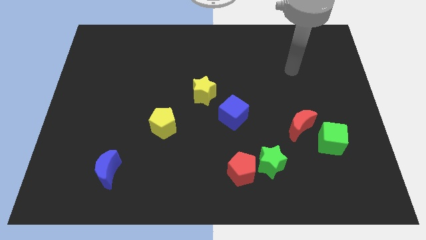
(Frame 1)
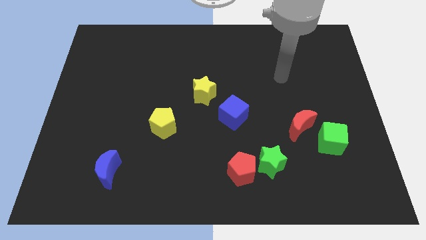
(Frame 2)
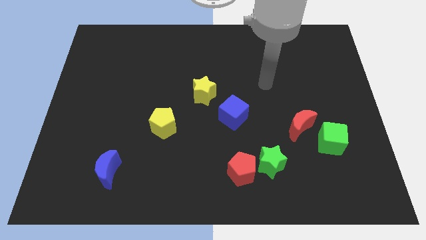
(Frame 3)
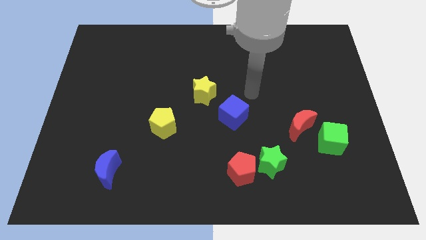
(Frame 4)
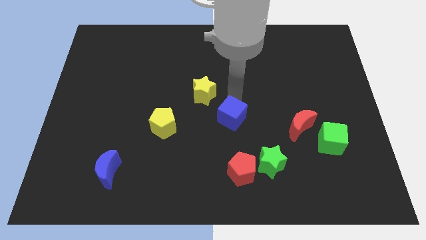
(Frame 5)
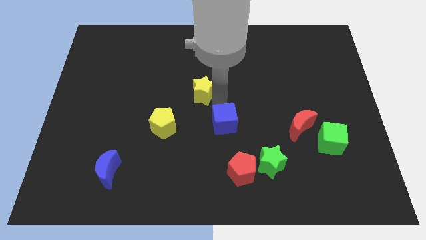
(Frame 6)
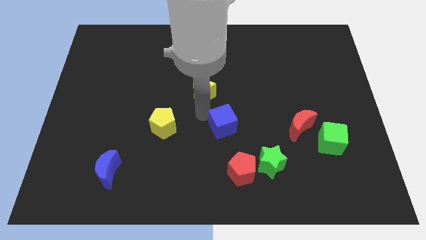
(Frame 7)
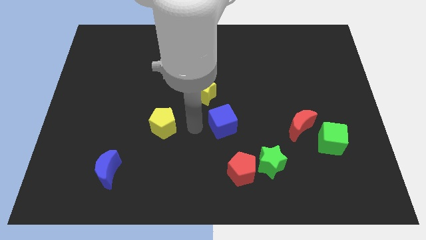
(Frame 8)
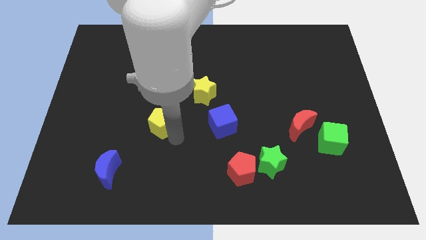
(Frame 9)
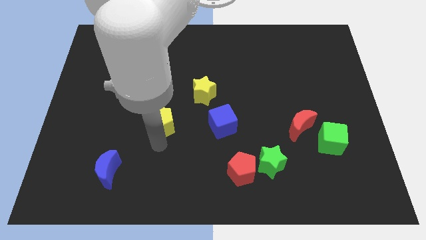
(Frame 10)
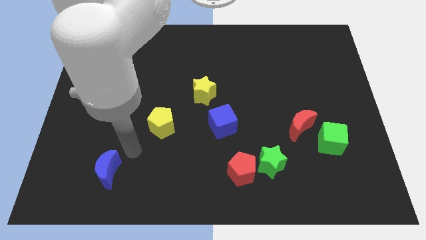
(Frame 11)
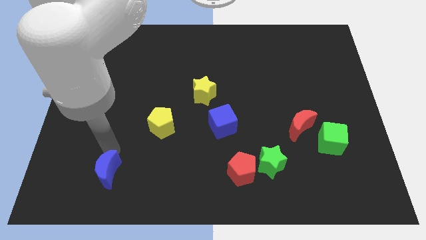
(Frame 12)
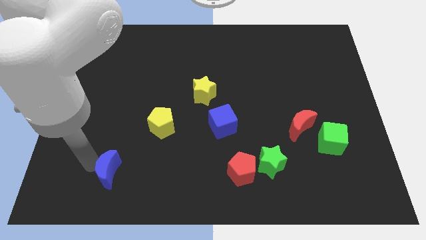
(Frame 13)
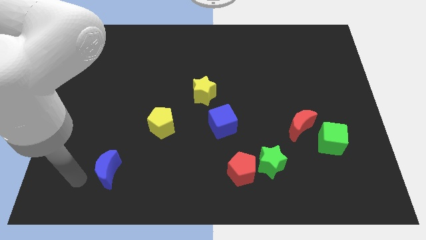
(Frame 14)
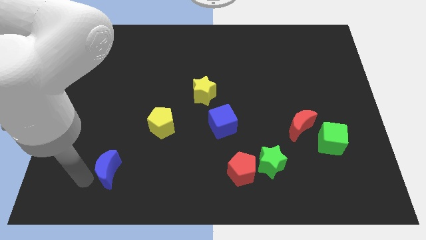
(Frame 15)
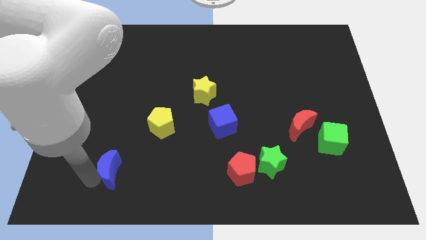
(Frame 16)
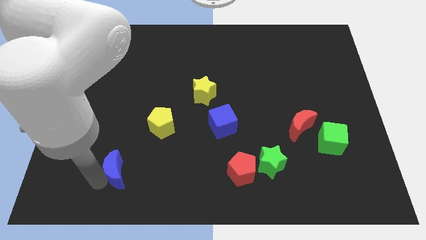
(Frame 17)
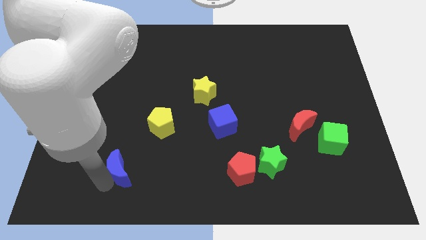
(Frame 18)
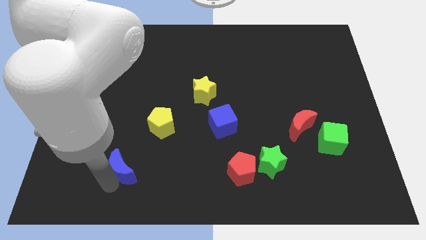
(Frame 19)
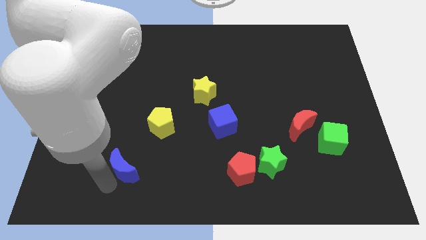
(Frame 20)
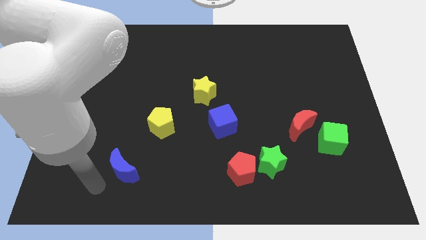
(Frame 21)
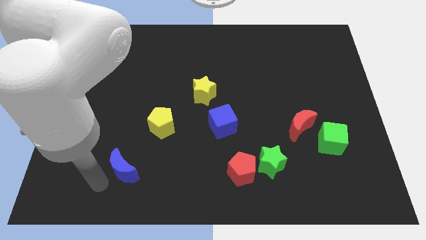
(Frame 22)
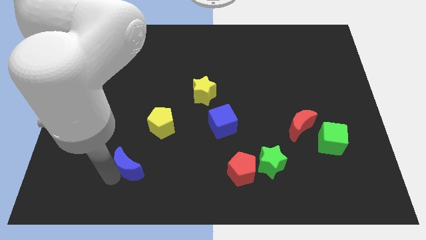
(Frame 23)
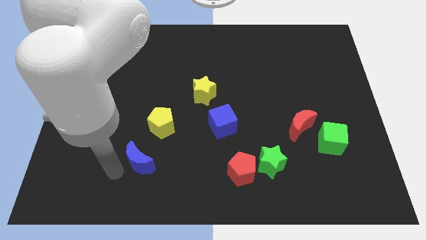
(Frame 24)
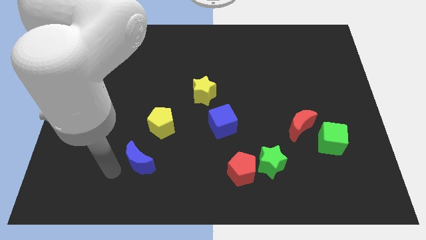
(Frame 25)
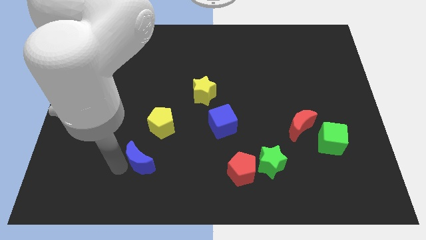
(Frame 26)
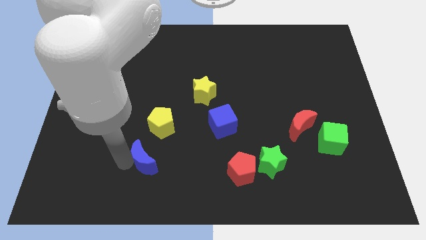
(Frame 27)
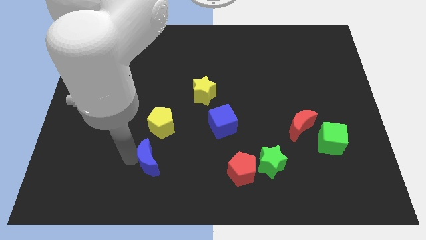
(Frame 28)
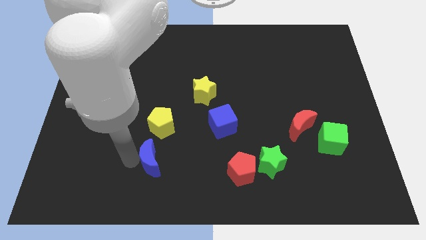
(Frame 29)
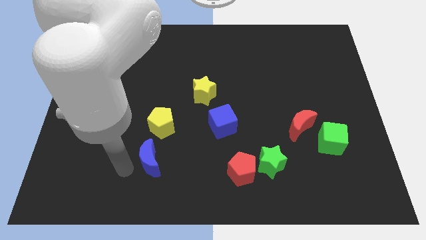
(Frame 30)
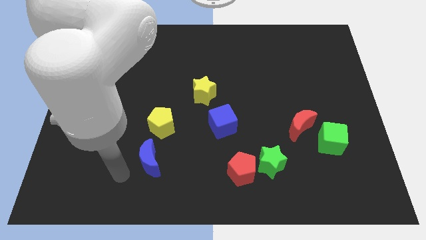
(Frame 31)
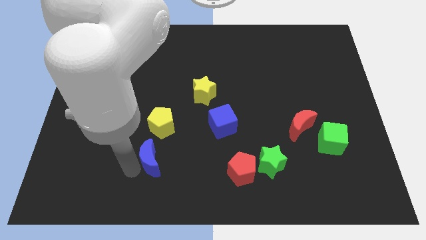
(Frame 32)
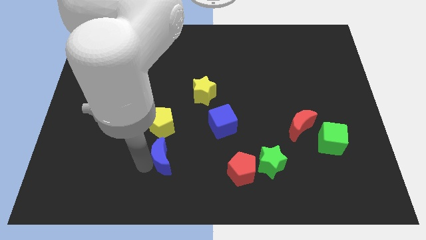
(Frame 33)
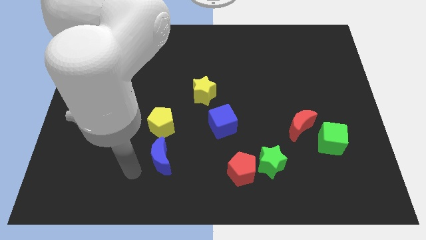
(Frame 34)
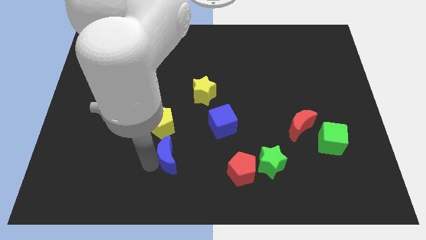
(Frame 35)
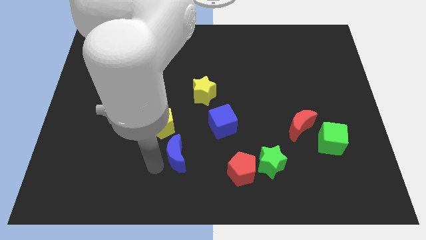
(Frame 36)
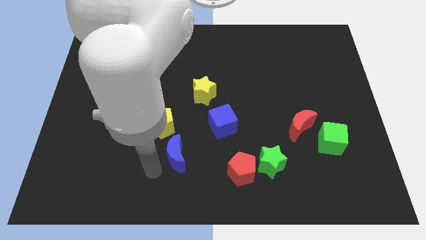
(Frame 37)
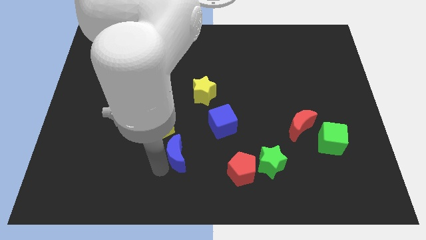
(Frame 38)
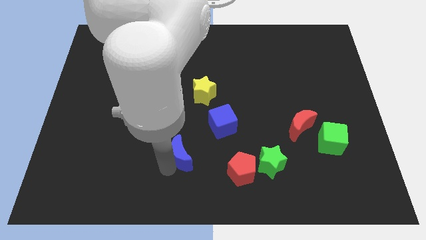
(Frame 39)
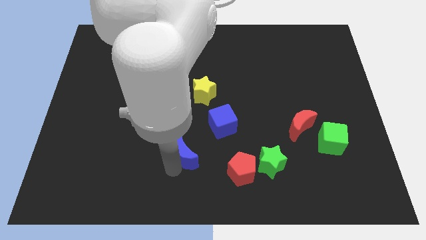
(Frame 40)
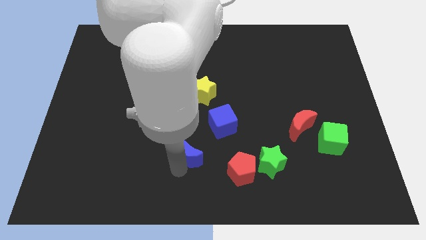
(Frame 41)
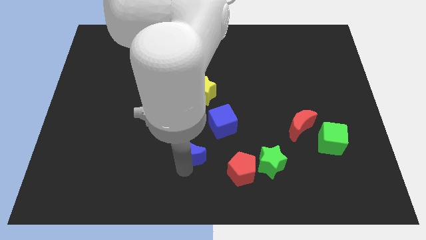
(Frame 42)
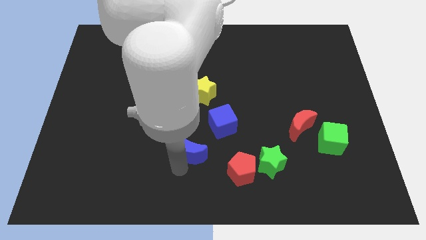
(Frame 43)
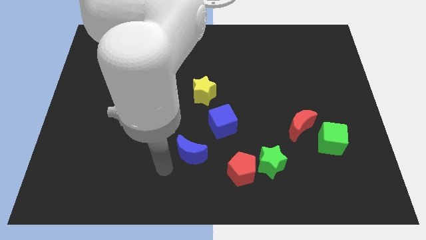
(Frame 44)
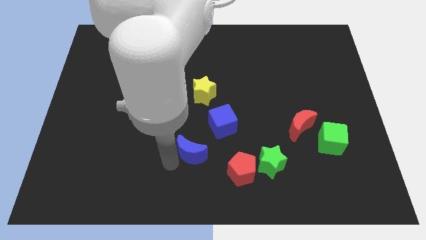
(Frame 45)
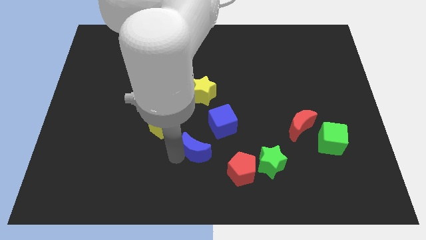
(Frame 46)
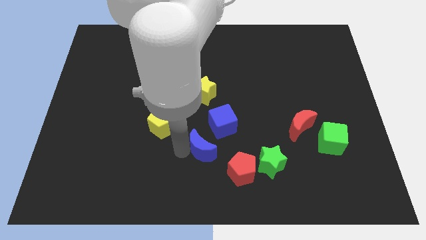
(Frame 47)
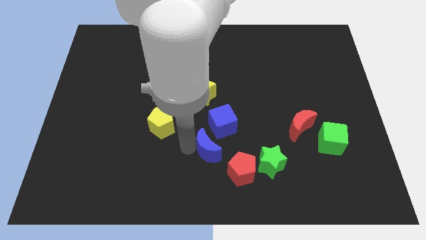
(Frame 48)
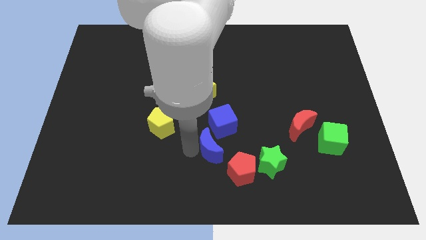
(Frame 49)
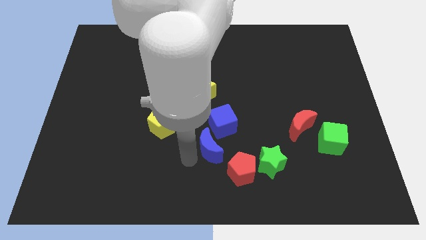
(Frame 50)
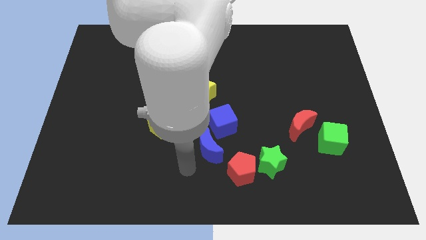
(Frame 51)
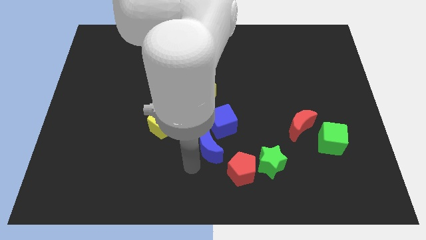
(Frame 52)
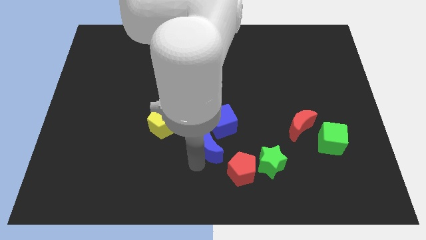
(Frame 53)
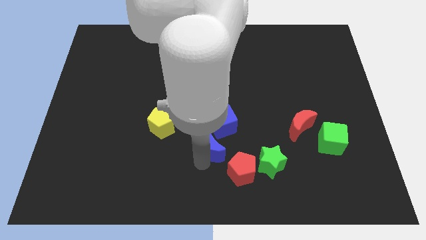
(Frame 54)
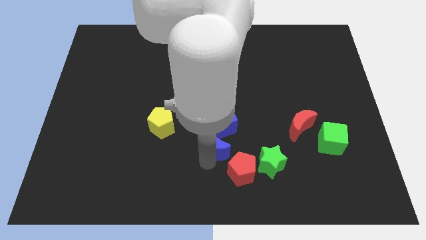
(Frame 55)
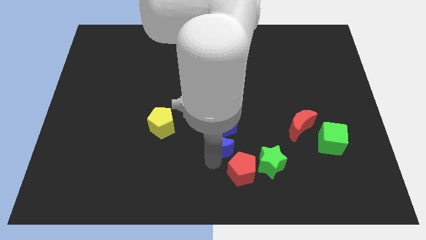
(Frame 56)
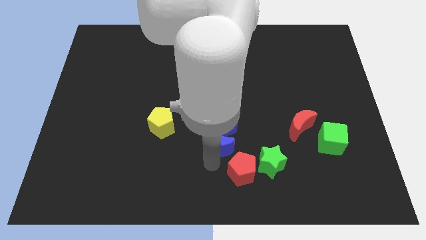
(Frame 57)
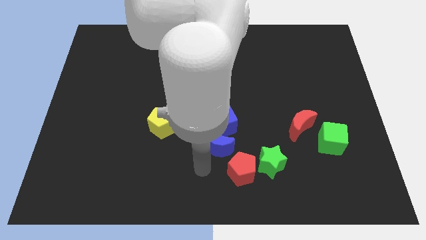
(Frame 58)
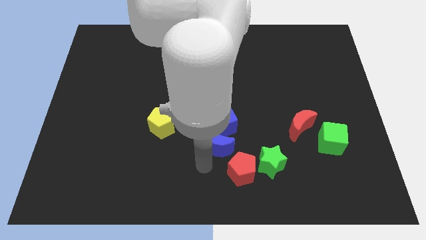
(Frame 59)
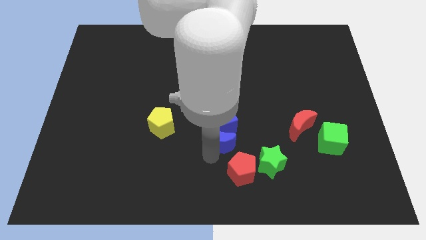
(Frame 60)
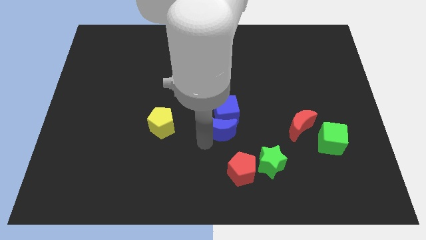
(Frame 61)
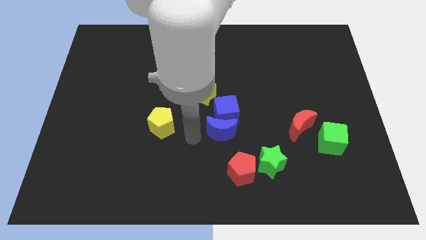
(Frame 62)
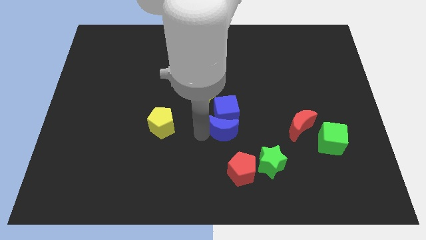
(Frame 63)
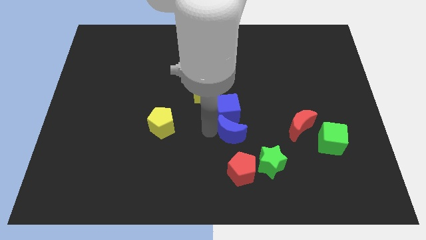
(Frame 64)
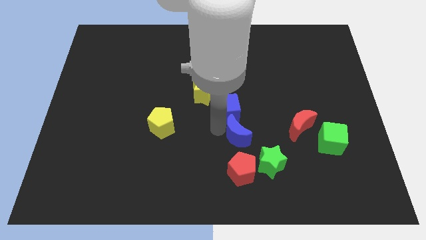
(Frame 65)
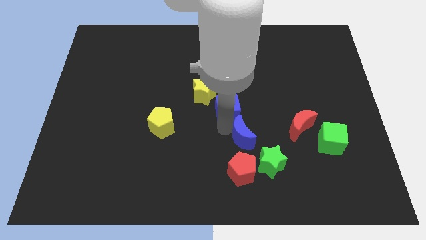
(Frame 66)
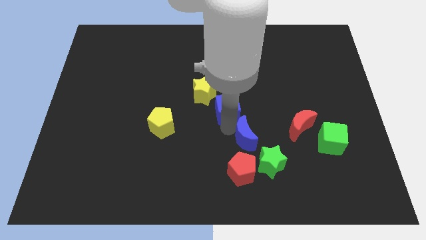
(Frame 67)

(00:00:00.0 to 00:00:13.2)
slide the blue moon to the top side of the green star
